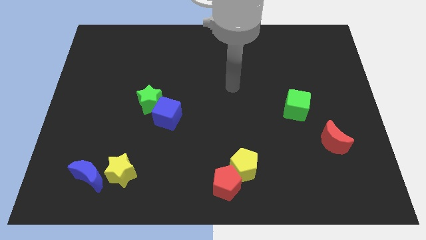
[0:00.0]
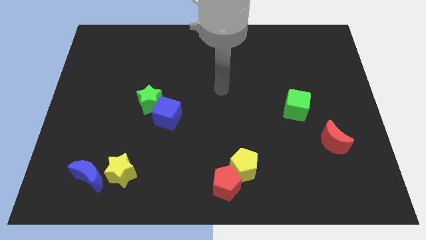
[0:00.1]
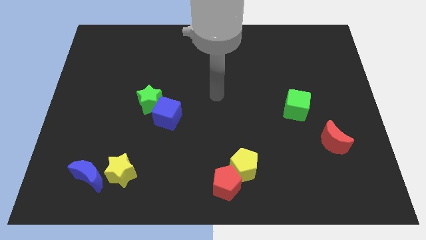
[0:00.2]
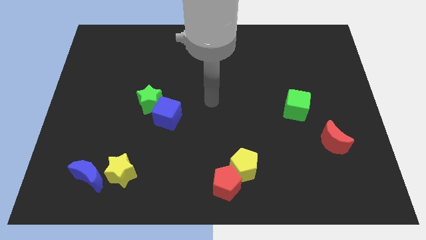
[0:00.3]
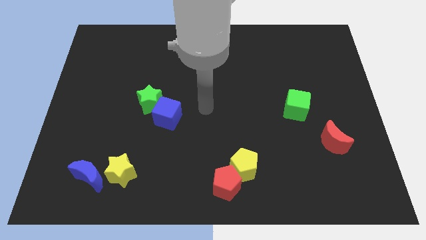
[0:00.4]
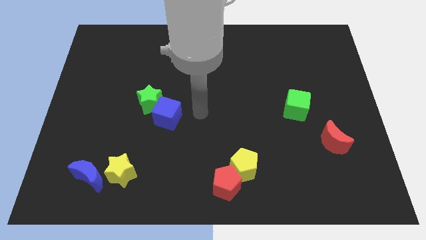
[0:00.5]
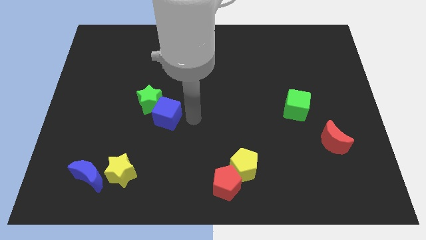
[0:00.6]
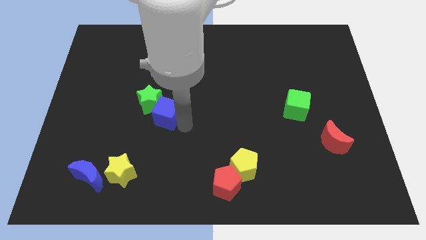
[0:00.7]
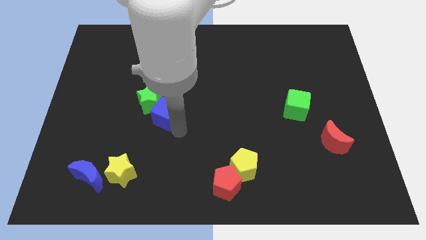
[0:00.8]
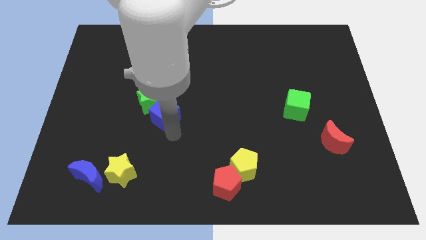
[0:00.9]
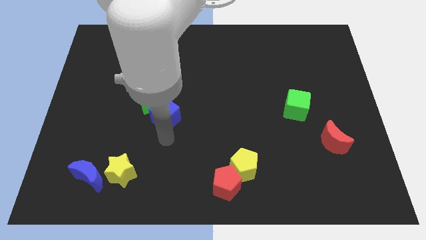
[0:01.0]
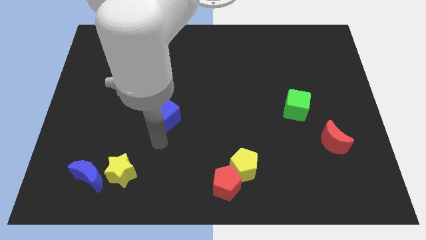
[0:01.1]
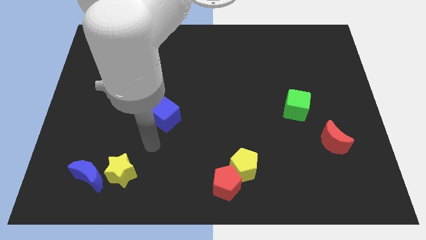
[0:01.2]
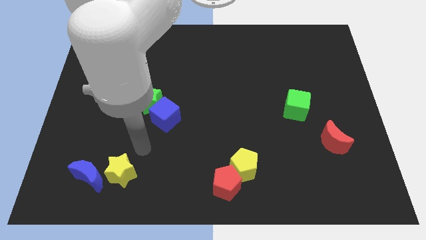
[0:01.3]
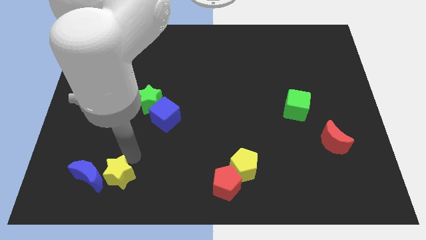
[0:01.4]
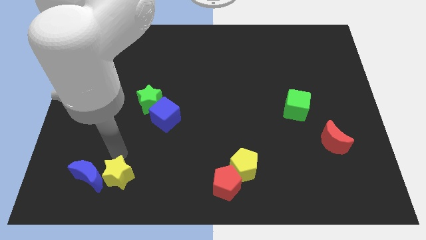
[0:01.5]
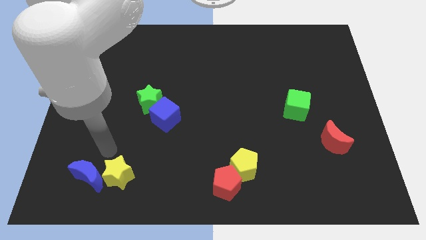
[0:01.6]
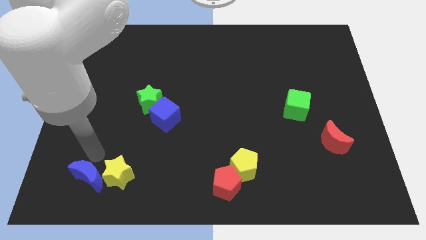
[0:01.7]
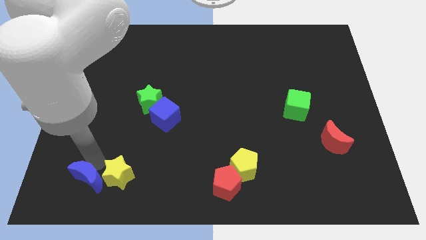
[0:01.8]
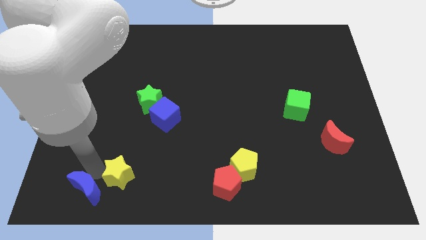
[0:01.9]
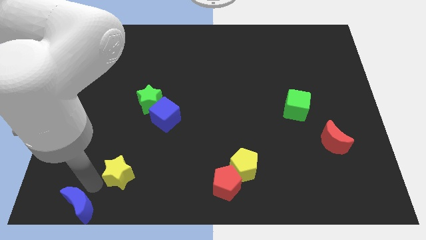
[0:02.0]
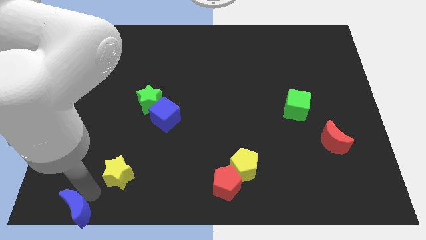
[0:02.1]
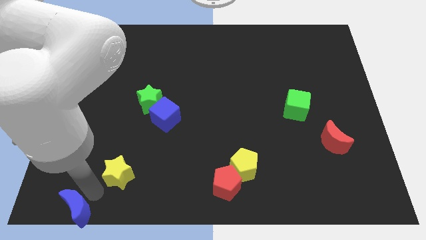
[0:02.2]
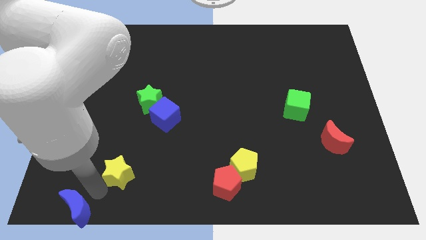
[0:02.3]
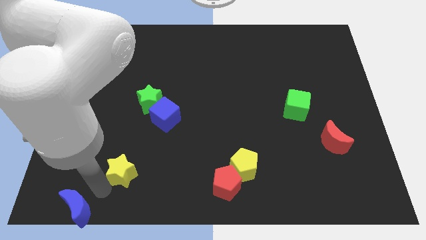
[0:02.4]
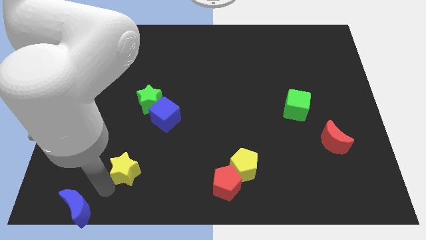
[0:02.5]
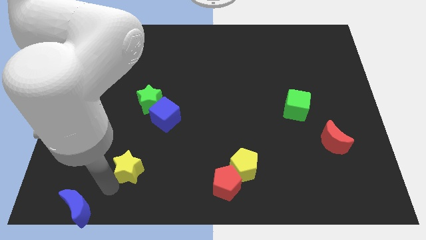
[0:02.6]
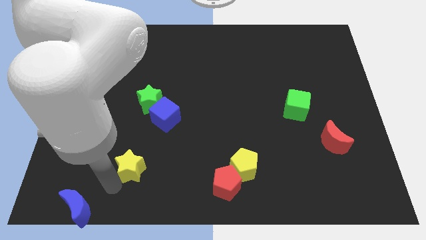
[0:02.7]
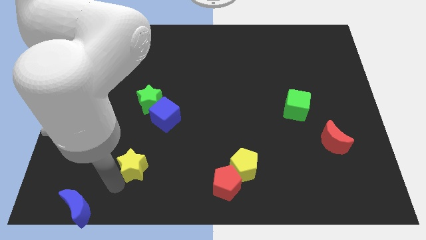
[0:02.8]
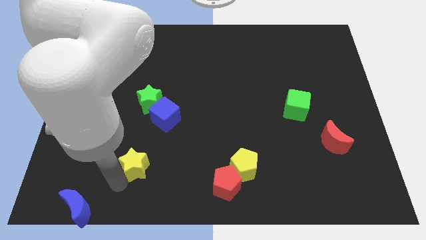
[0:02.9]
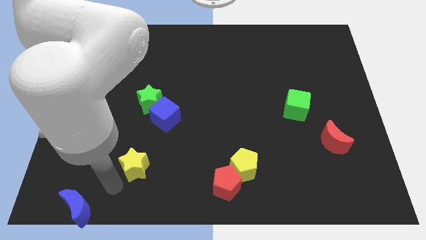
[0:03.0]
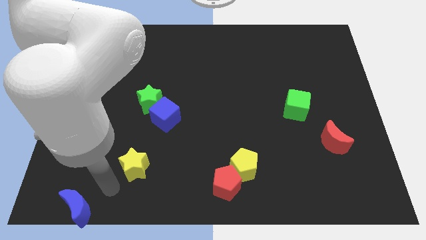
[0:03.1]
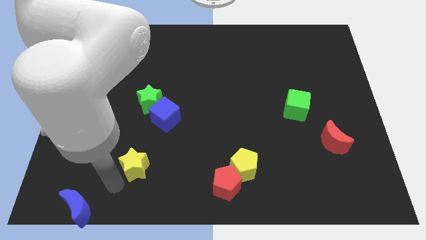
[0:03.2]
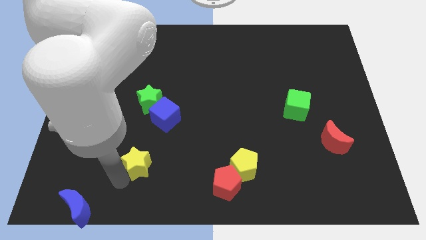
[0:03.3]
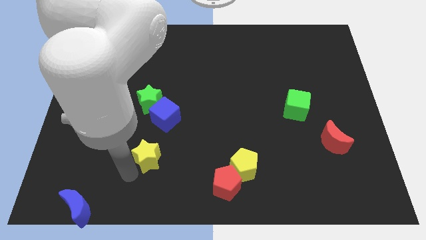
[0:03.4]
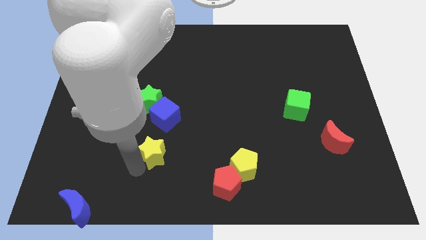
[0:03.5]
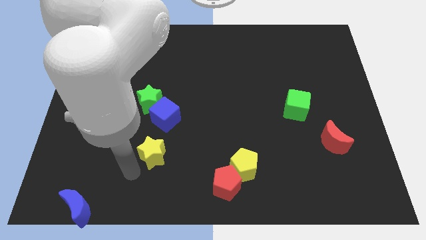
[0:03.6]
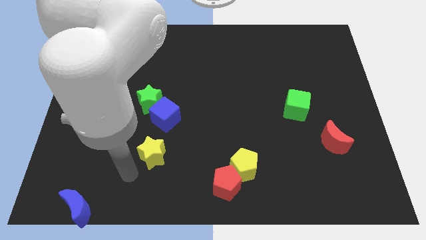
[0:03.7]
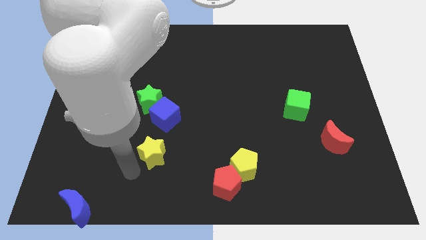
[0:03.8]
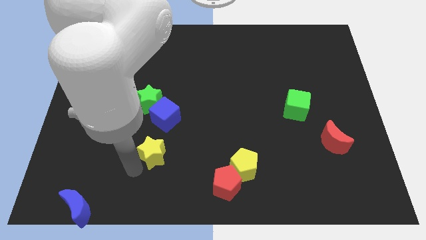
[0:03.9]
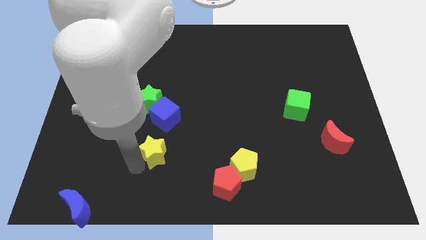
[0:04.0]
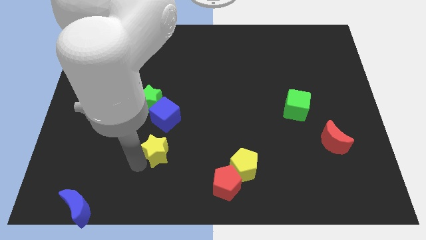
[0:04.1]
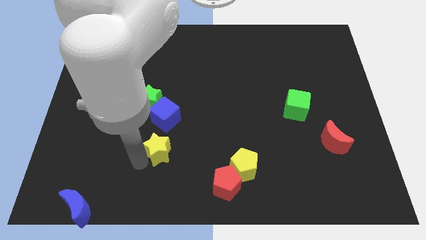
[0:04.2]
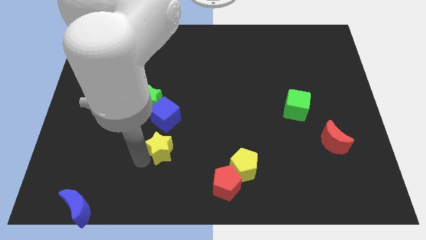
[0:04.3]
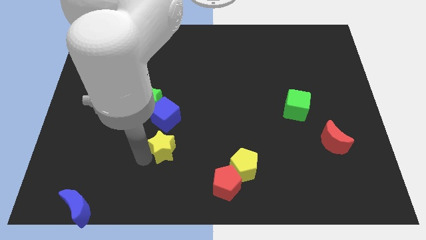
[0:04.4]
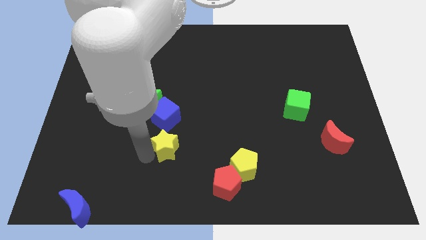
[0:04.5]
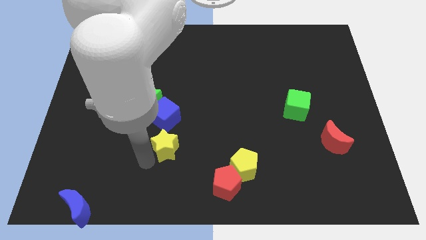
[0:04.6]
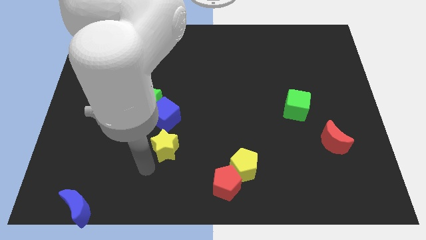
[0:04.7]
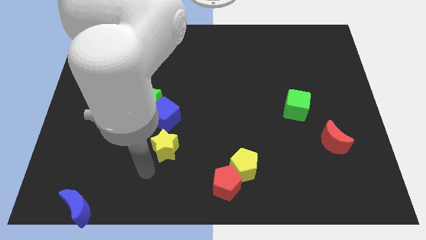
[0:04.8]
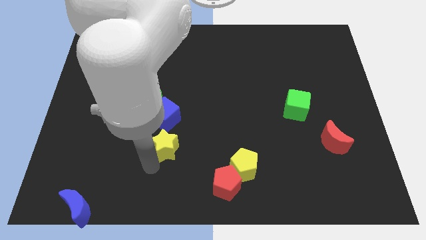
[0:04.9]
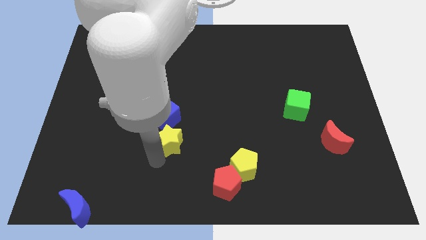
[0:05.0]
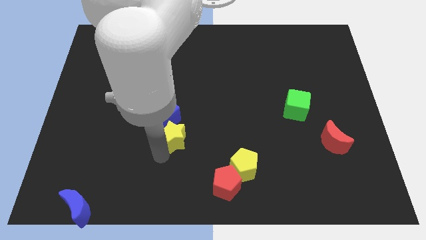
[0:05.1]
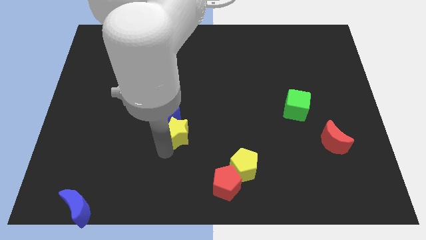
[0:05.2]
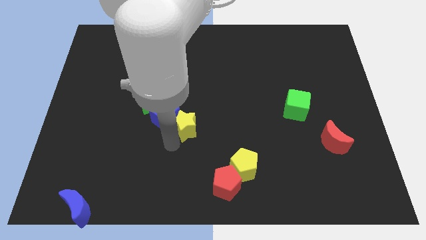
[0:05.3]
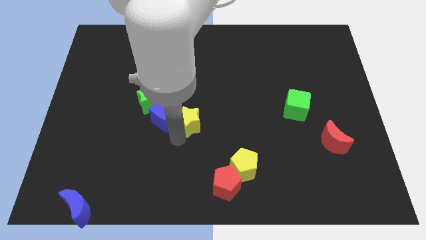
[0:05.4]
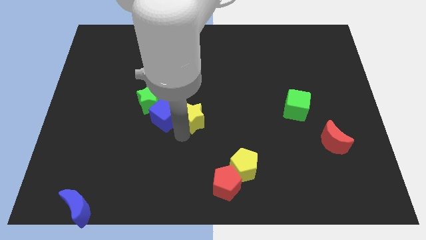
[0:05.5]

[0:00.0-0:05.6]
slide the yellow star upwards and to the right diagonally

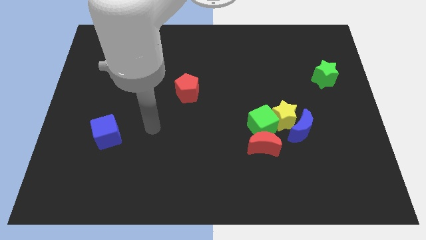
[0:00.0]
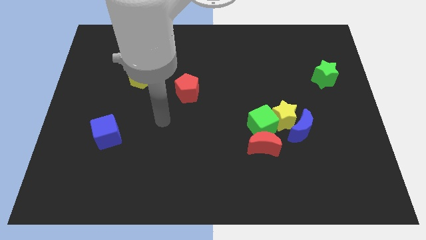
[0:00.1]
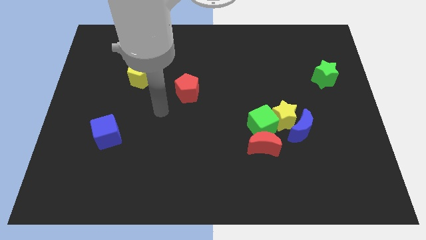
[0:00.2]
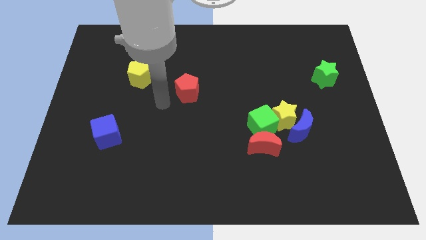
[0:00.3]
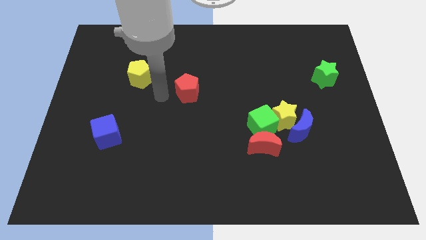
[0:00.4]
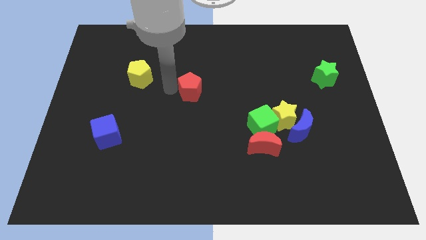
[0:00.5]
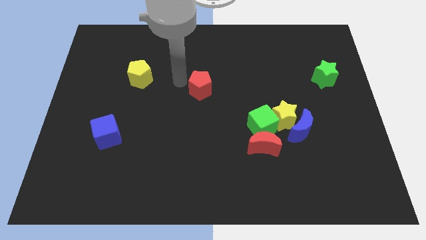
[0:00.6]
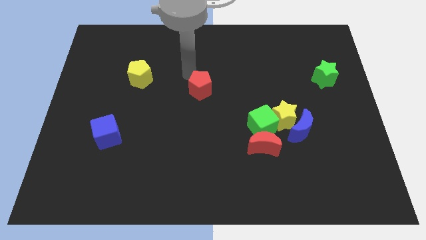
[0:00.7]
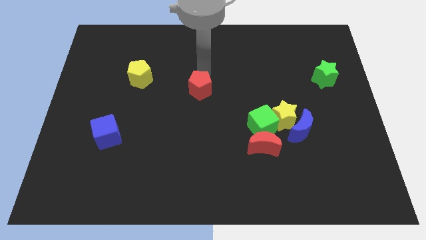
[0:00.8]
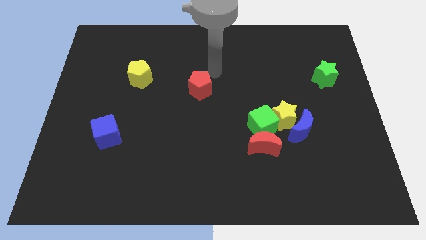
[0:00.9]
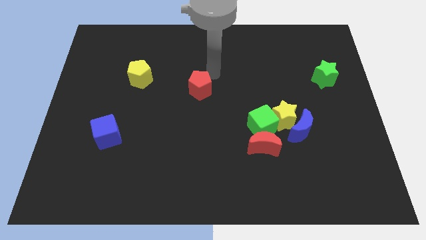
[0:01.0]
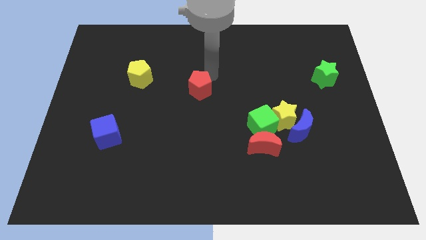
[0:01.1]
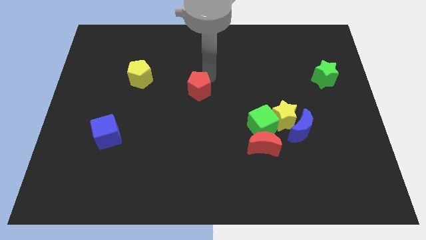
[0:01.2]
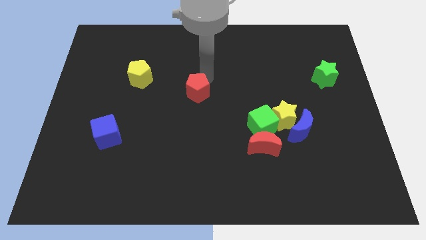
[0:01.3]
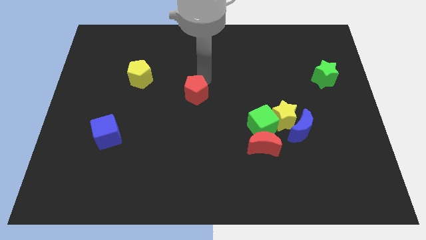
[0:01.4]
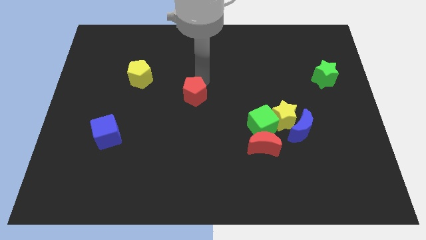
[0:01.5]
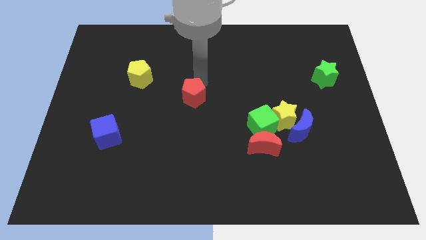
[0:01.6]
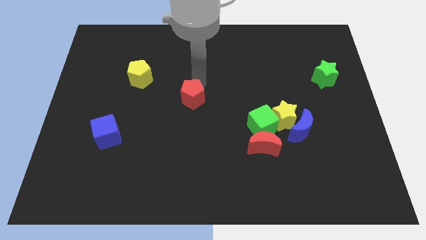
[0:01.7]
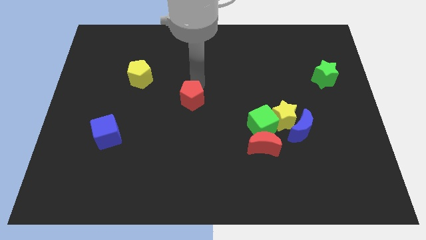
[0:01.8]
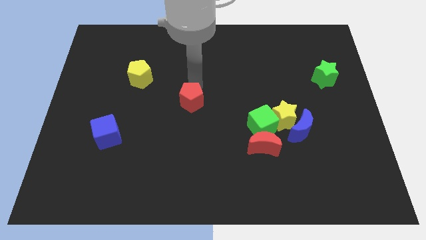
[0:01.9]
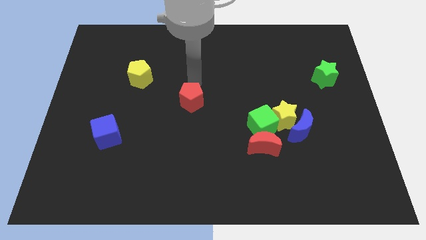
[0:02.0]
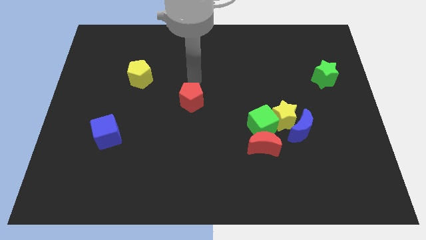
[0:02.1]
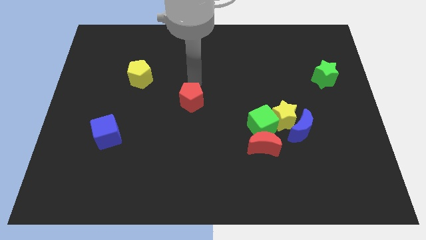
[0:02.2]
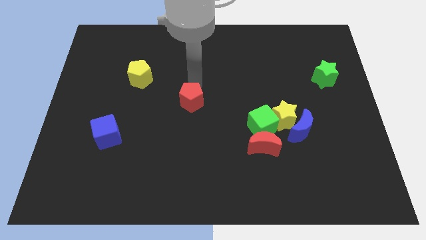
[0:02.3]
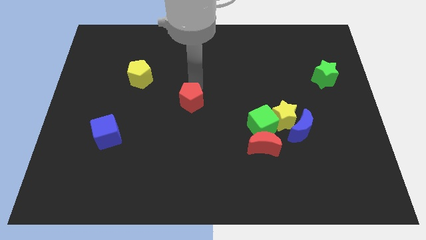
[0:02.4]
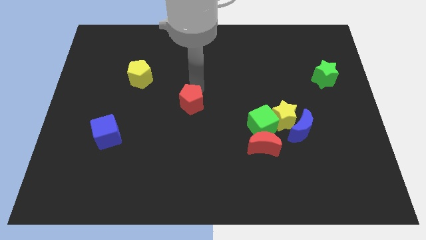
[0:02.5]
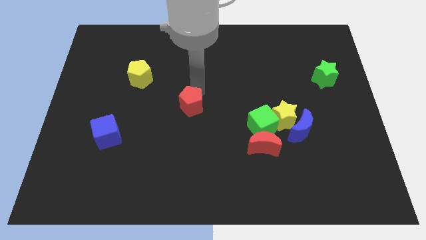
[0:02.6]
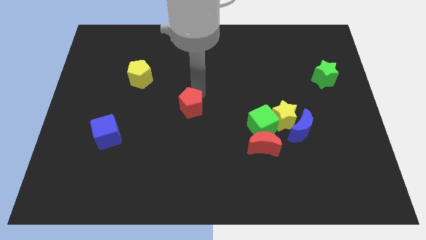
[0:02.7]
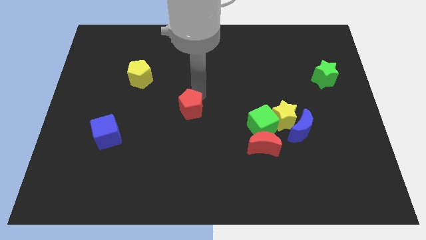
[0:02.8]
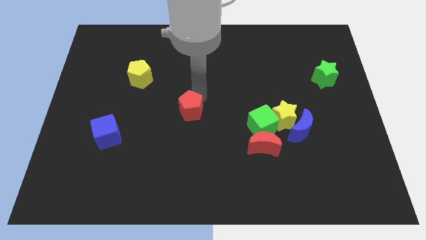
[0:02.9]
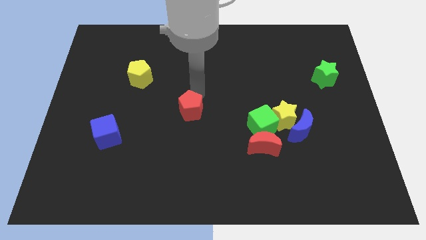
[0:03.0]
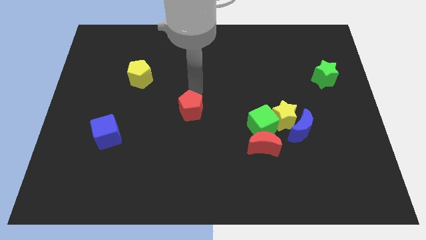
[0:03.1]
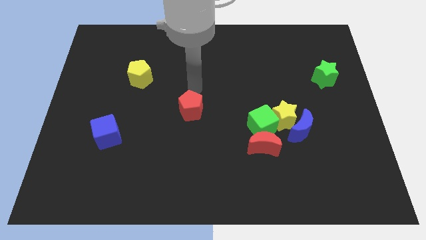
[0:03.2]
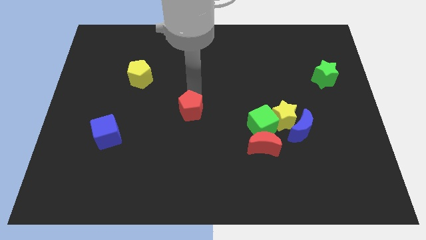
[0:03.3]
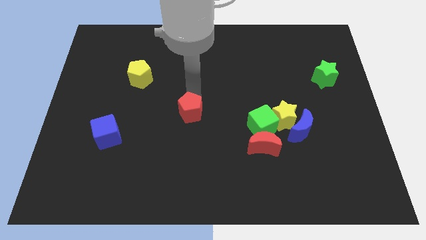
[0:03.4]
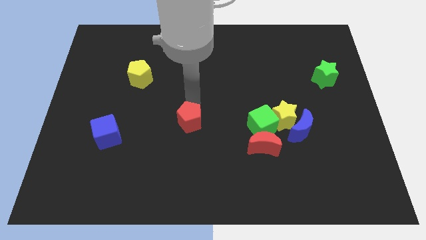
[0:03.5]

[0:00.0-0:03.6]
slightly move the red pentagon downwards
